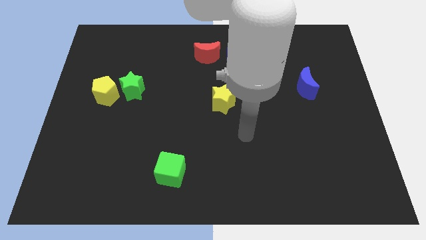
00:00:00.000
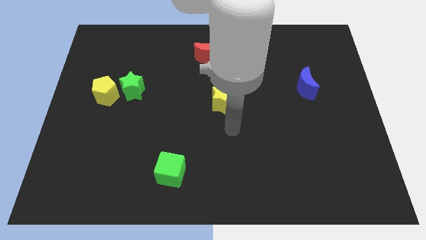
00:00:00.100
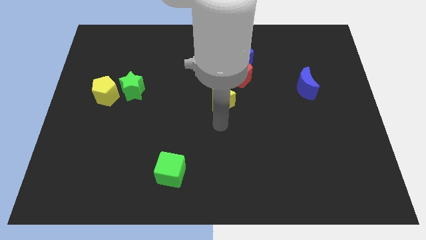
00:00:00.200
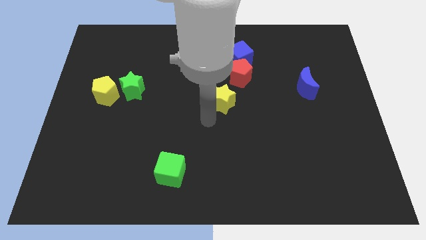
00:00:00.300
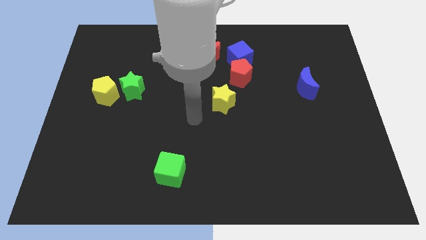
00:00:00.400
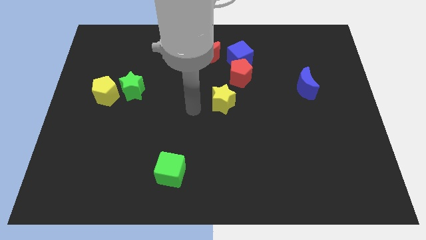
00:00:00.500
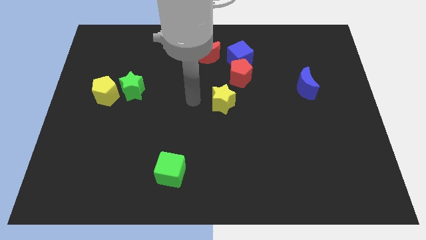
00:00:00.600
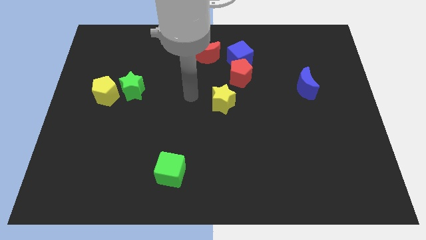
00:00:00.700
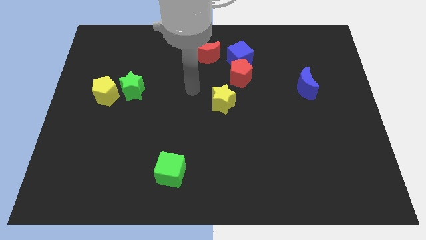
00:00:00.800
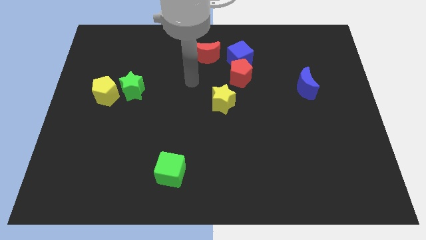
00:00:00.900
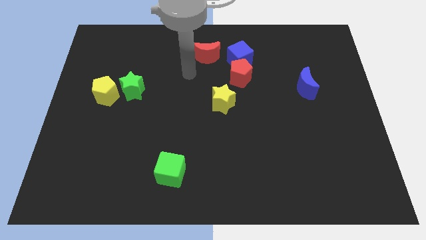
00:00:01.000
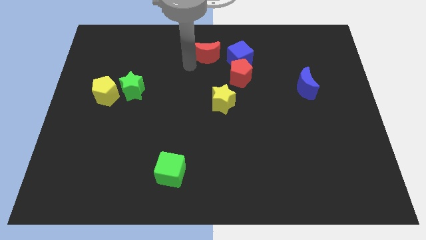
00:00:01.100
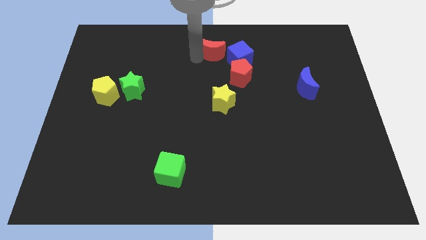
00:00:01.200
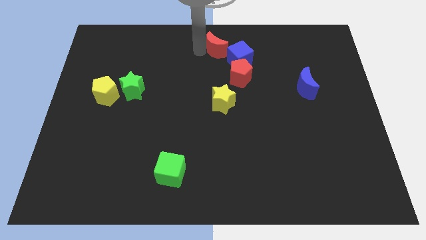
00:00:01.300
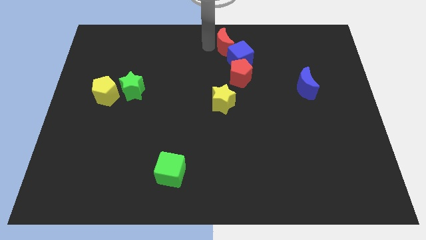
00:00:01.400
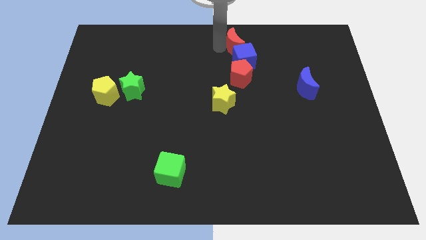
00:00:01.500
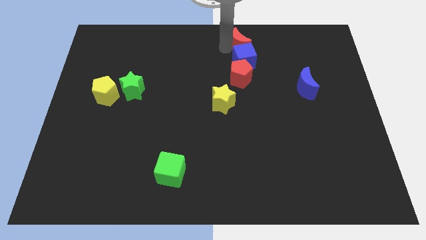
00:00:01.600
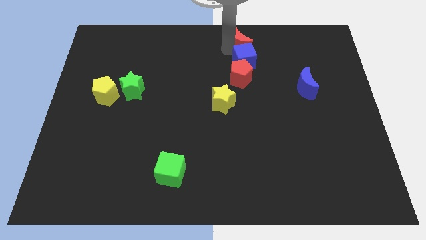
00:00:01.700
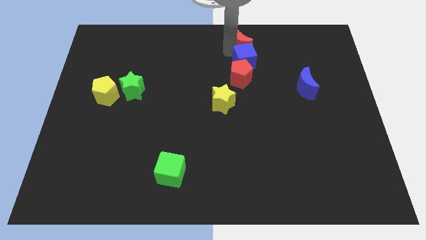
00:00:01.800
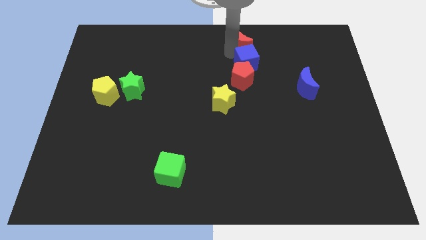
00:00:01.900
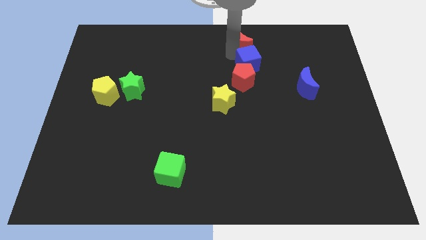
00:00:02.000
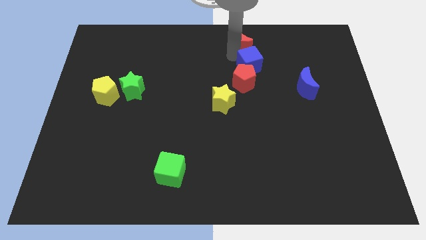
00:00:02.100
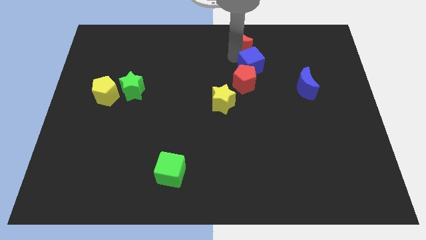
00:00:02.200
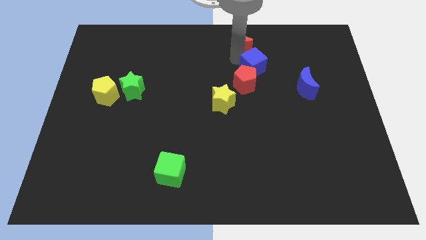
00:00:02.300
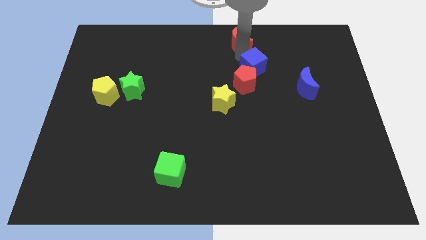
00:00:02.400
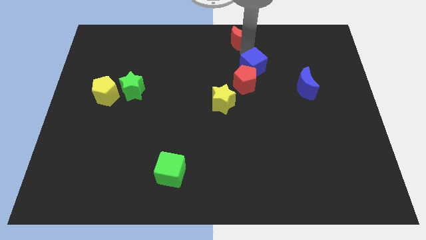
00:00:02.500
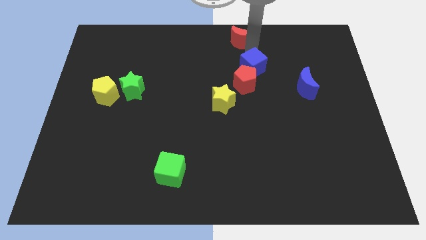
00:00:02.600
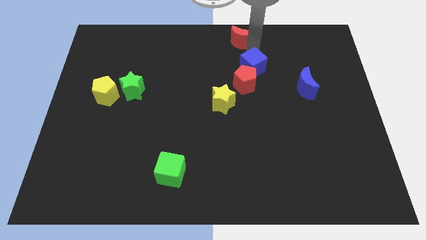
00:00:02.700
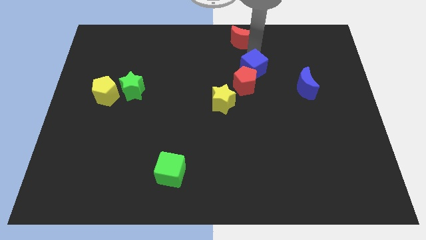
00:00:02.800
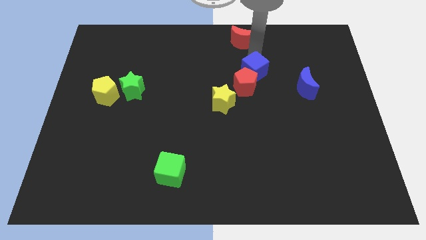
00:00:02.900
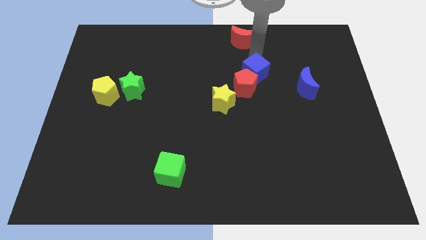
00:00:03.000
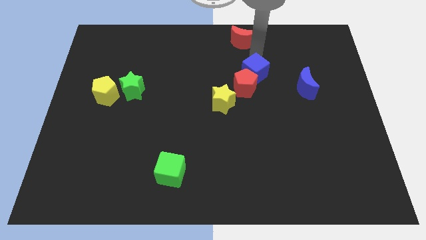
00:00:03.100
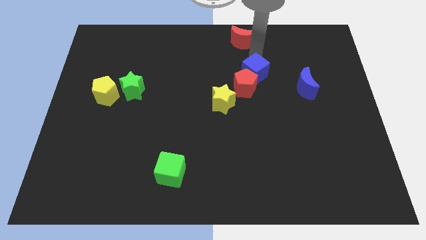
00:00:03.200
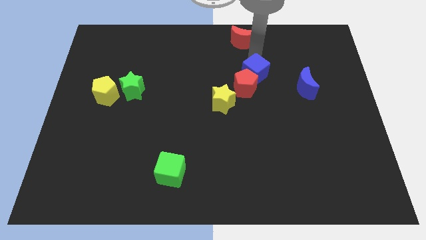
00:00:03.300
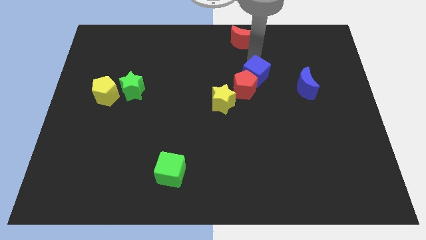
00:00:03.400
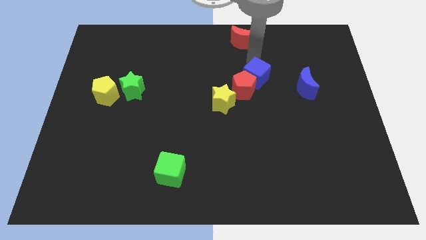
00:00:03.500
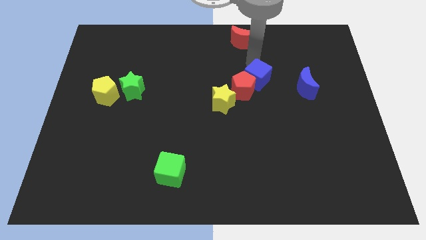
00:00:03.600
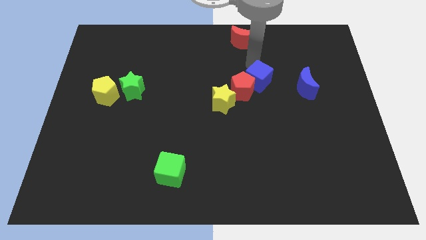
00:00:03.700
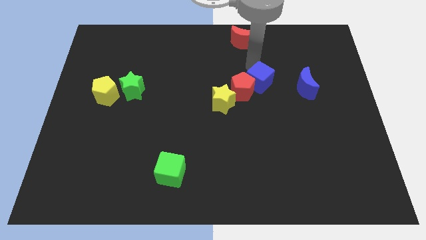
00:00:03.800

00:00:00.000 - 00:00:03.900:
slide the blue cube down a little

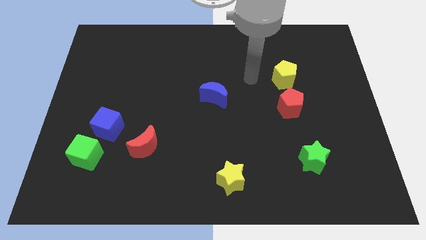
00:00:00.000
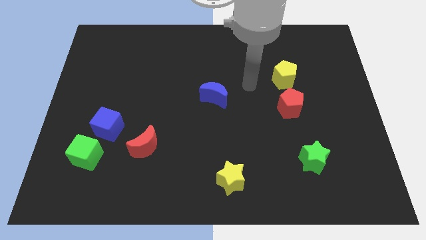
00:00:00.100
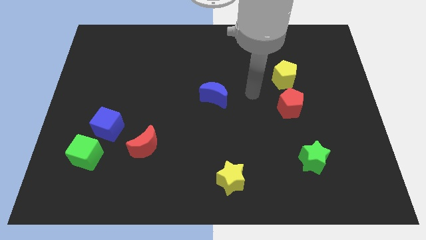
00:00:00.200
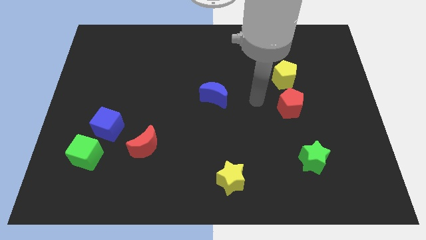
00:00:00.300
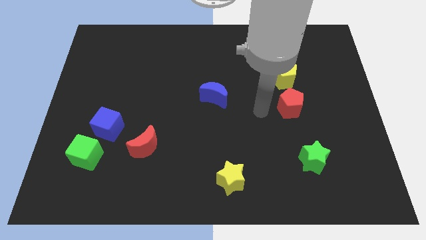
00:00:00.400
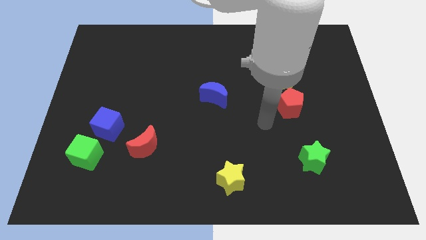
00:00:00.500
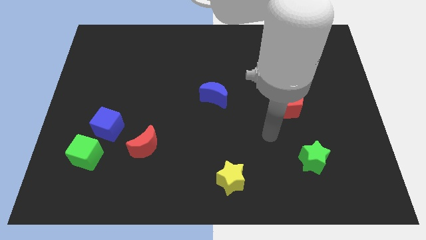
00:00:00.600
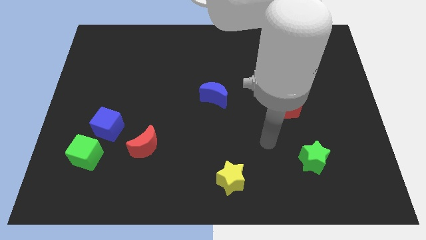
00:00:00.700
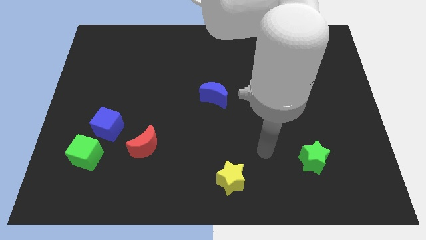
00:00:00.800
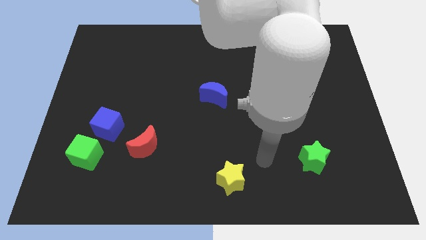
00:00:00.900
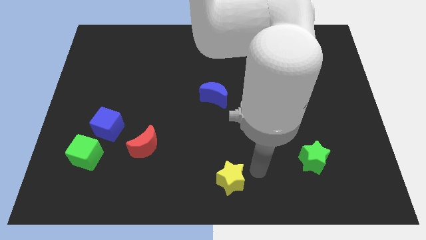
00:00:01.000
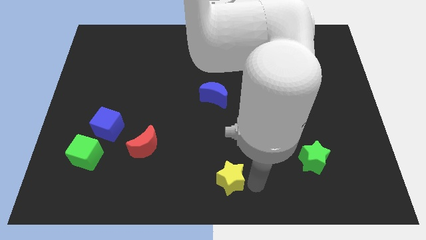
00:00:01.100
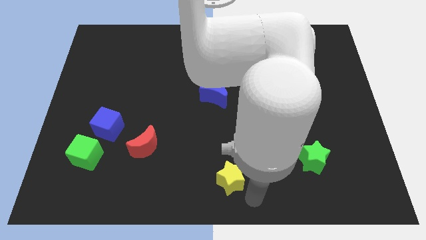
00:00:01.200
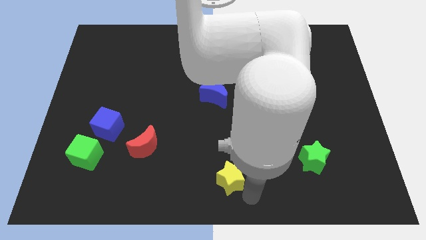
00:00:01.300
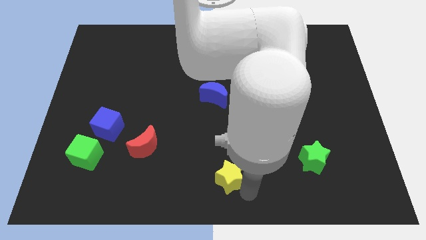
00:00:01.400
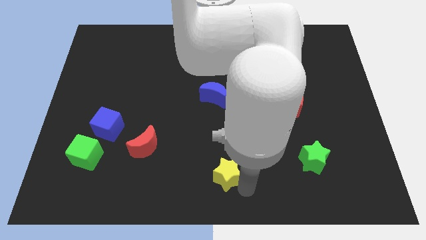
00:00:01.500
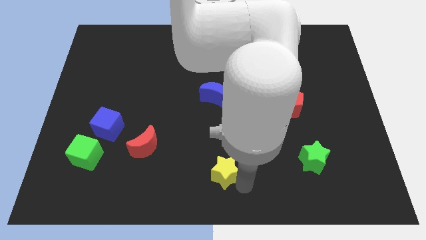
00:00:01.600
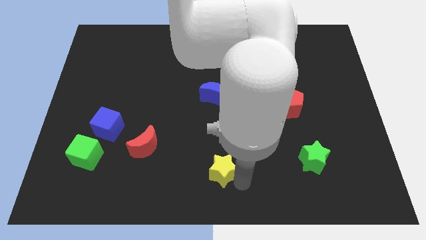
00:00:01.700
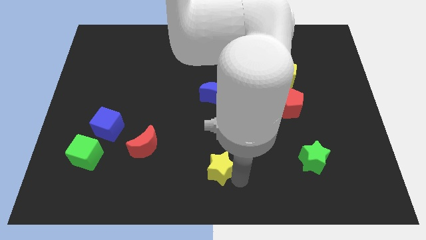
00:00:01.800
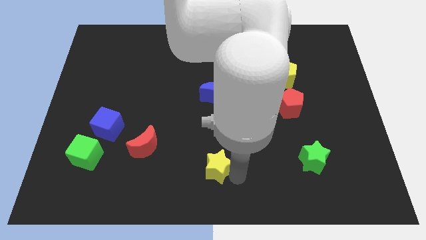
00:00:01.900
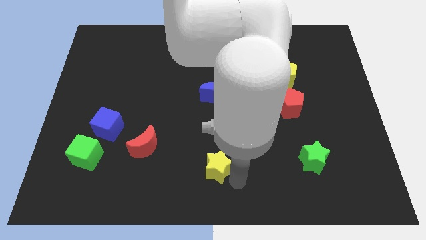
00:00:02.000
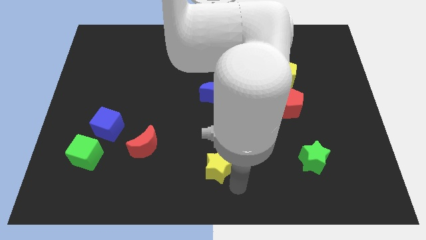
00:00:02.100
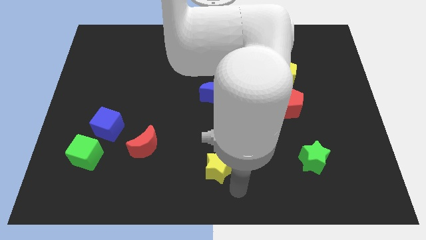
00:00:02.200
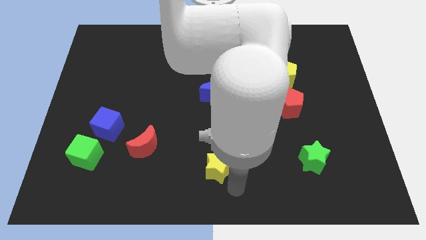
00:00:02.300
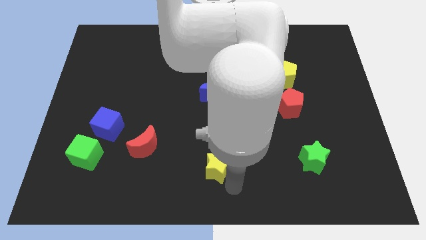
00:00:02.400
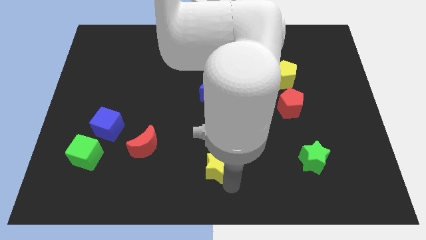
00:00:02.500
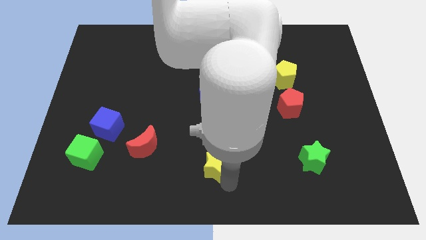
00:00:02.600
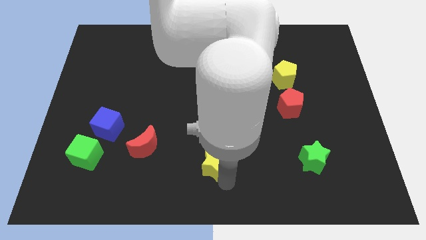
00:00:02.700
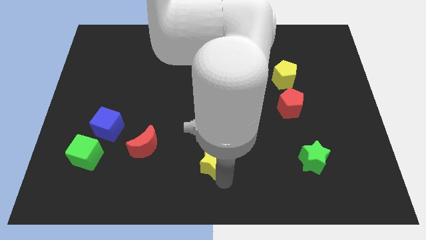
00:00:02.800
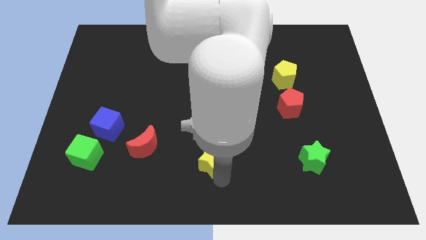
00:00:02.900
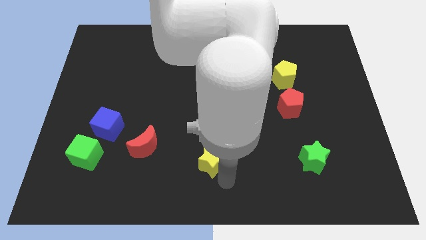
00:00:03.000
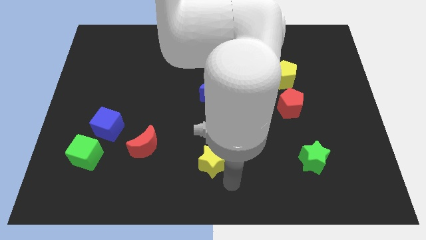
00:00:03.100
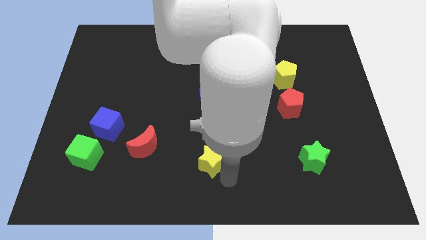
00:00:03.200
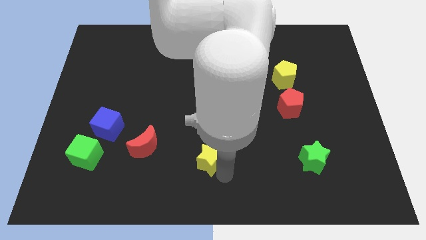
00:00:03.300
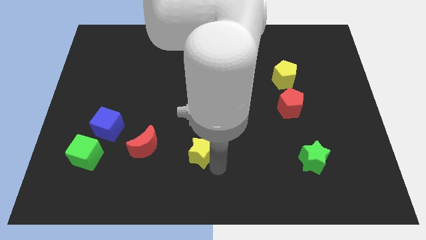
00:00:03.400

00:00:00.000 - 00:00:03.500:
push the yellow star slightly upwards and to the left diagonally

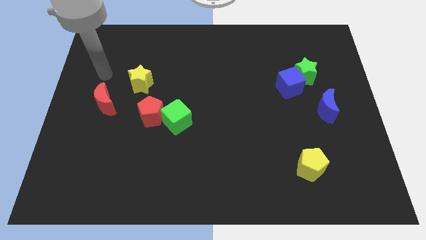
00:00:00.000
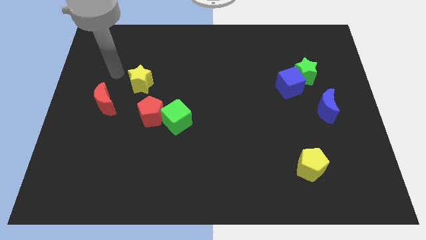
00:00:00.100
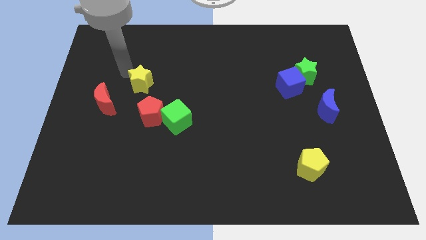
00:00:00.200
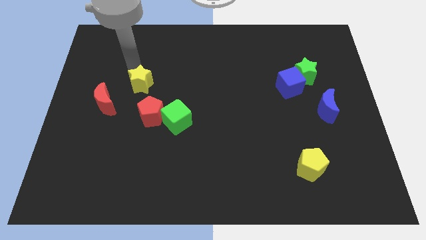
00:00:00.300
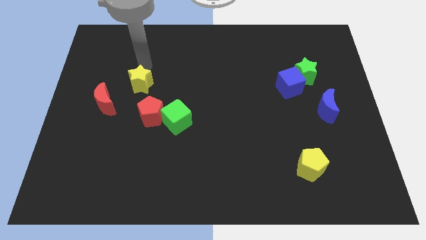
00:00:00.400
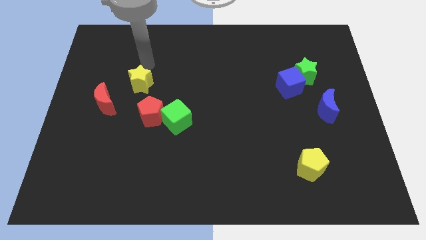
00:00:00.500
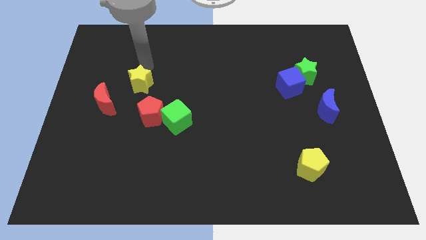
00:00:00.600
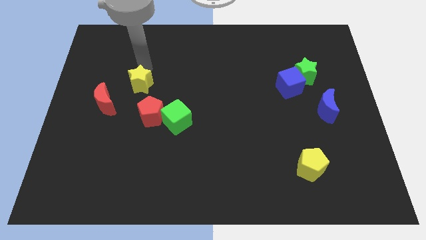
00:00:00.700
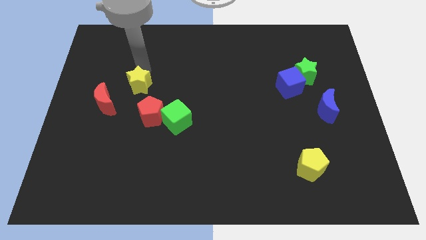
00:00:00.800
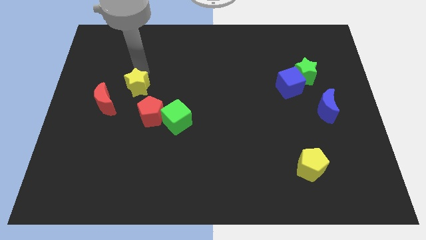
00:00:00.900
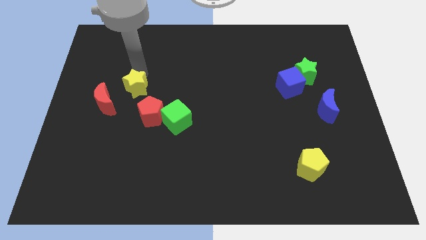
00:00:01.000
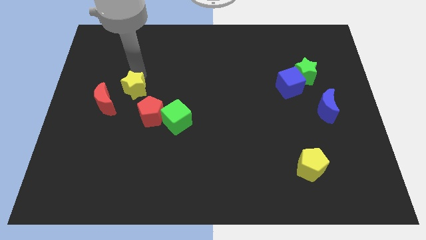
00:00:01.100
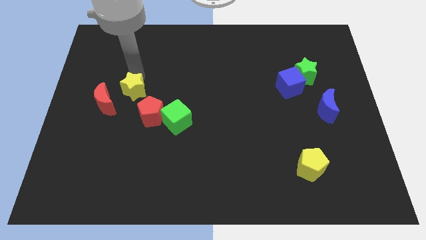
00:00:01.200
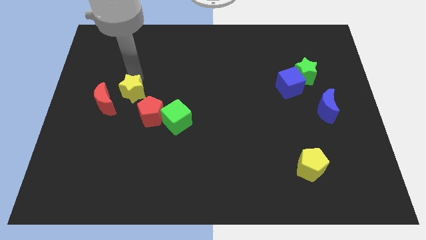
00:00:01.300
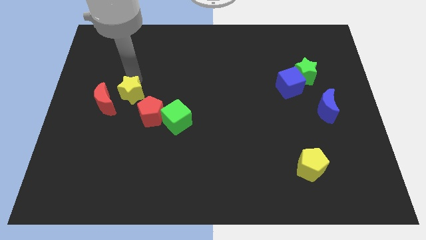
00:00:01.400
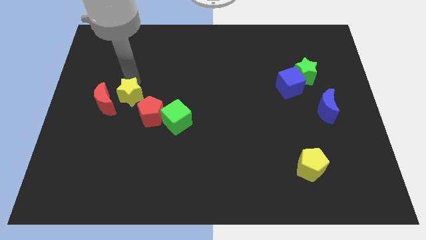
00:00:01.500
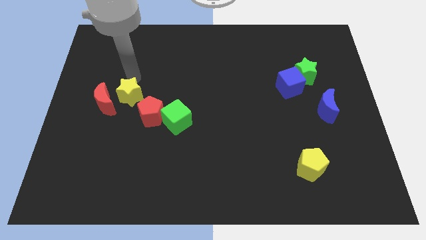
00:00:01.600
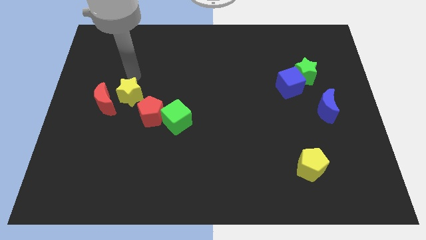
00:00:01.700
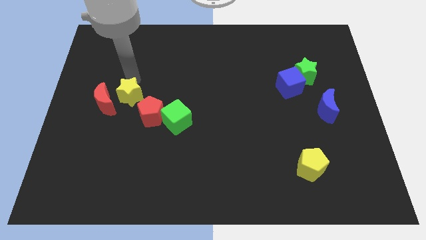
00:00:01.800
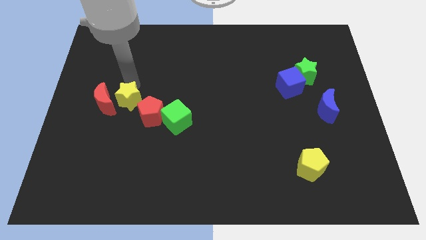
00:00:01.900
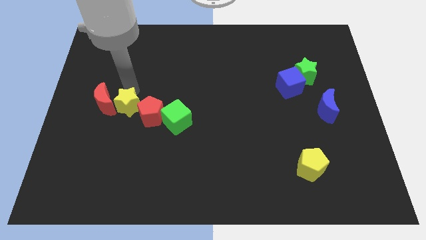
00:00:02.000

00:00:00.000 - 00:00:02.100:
slightly move the yellow star downwards
